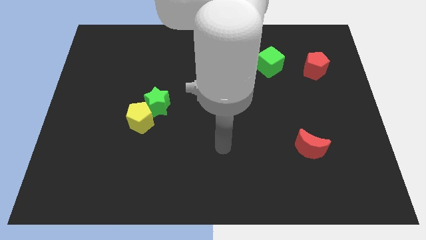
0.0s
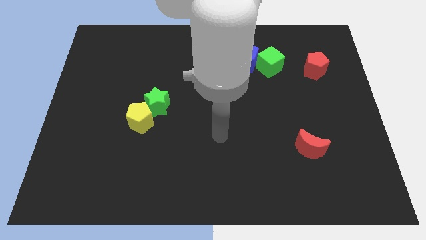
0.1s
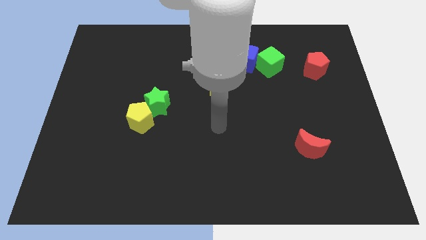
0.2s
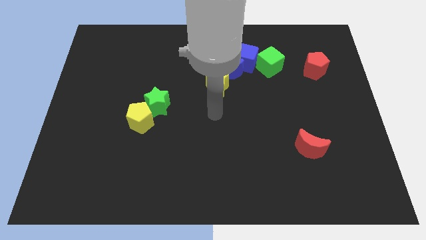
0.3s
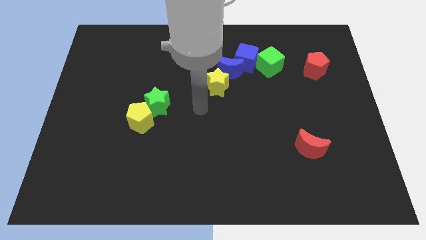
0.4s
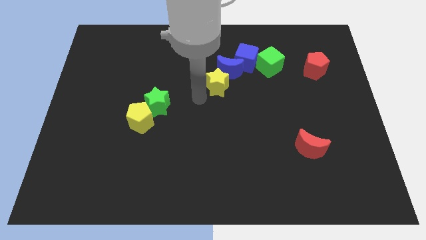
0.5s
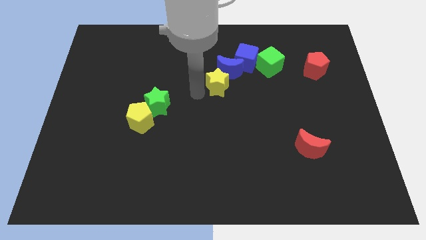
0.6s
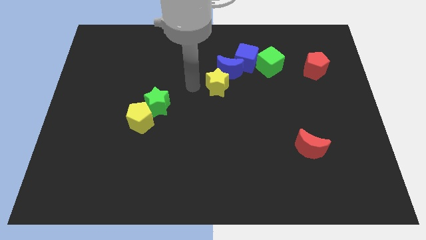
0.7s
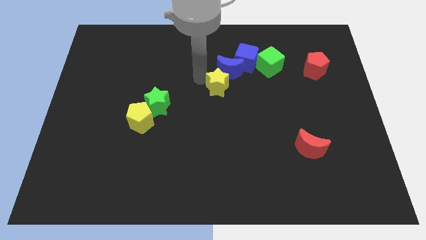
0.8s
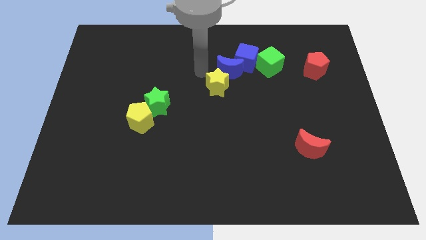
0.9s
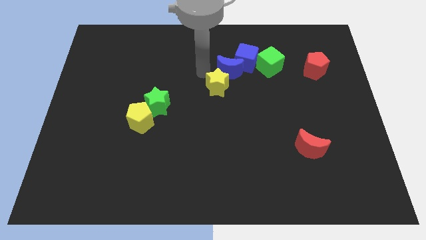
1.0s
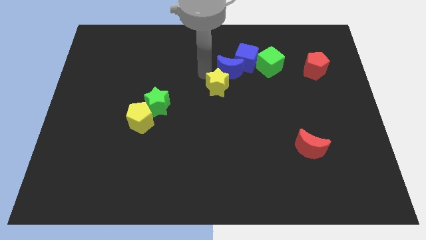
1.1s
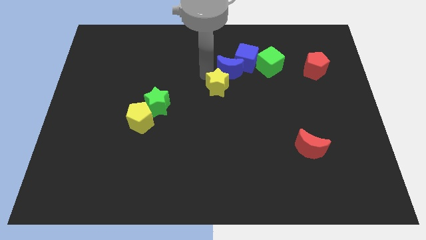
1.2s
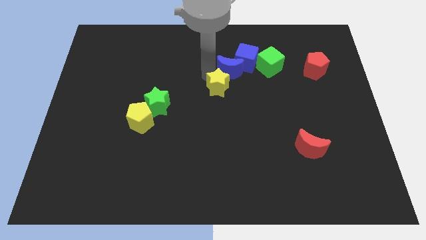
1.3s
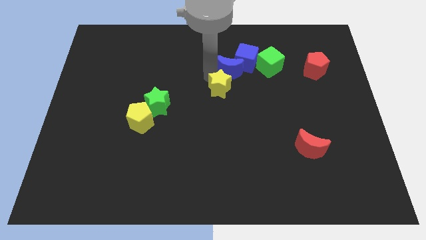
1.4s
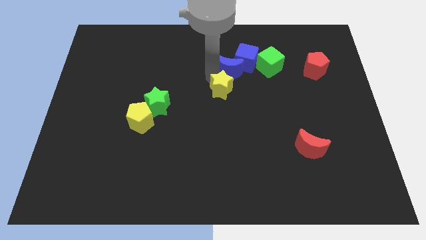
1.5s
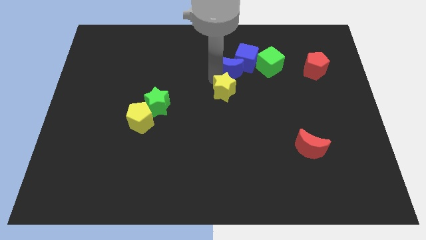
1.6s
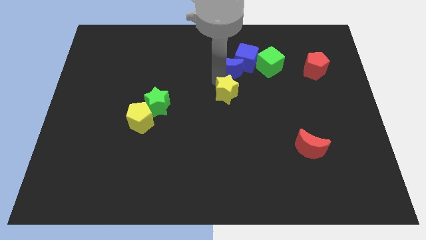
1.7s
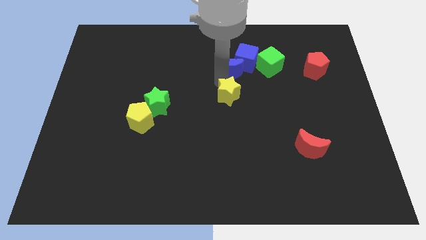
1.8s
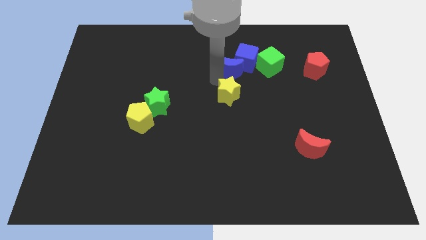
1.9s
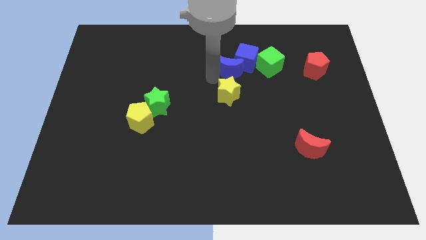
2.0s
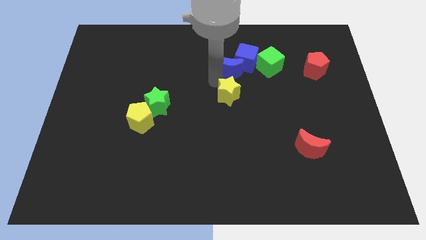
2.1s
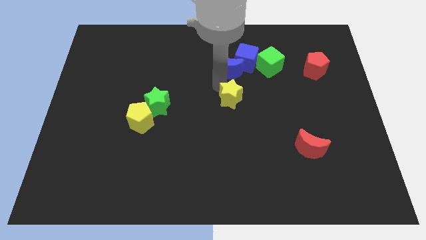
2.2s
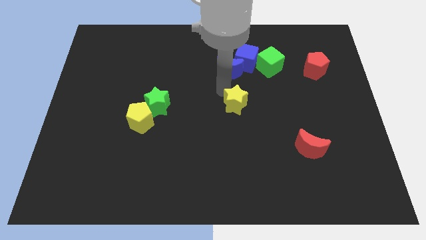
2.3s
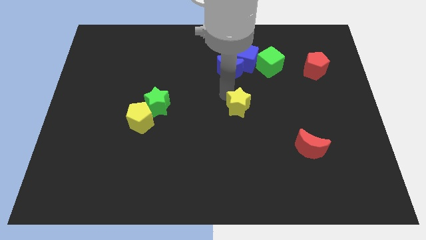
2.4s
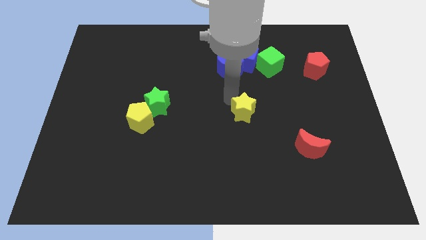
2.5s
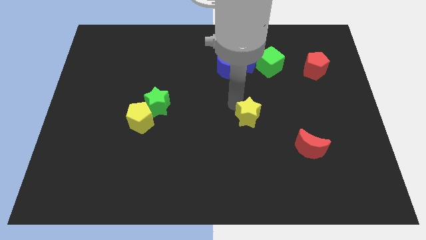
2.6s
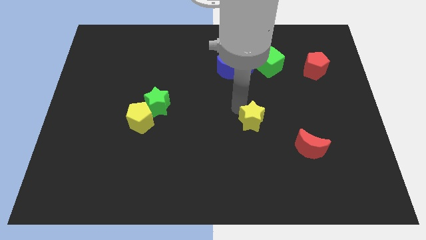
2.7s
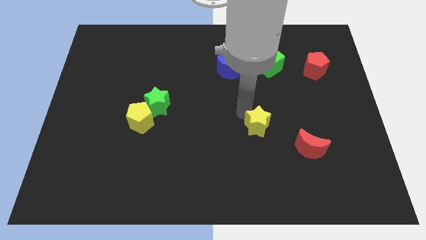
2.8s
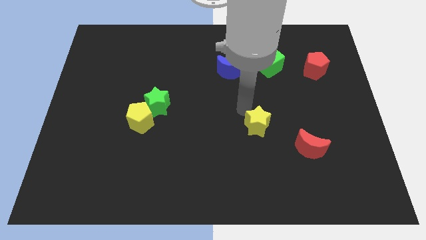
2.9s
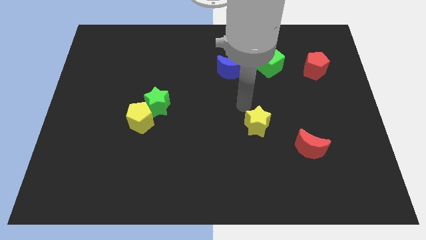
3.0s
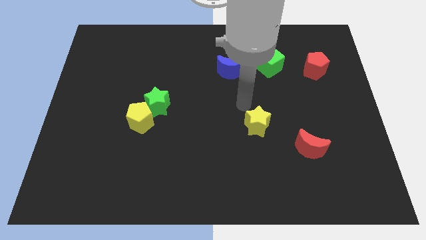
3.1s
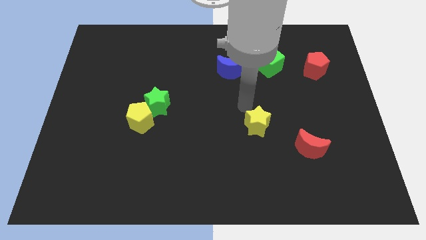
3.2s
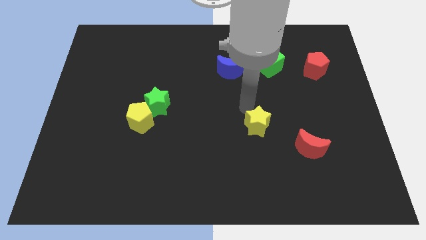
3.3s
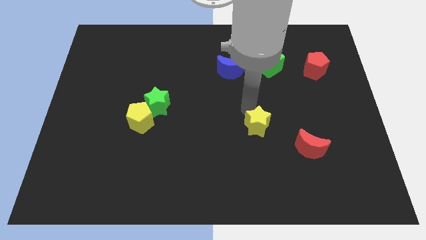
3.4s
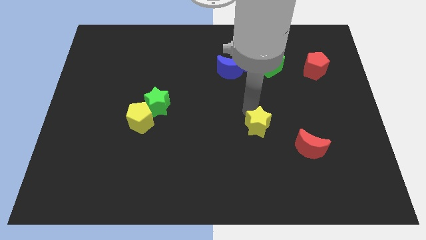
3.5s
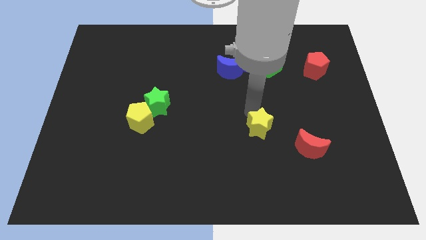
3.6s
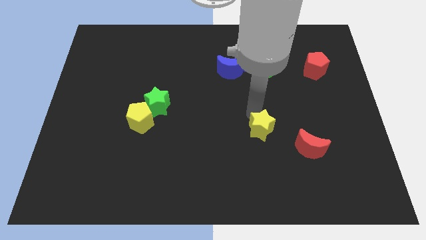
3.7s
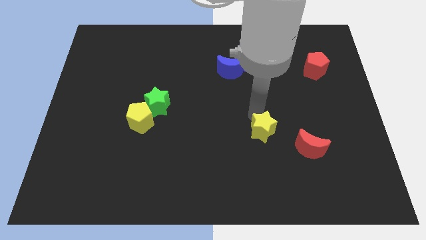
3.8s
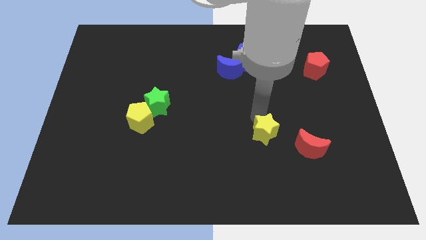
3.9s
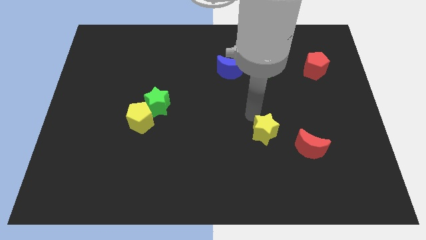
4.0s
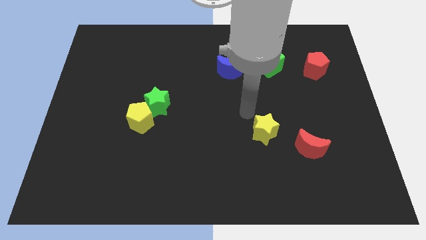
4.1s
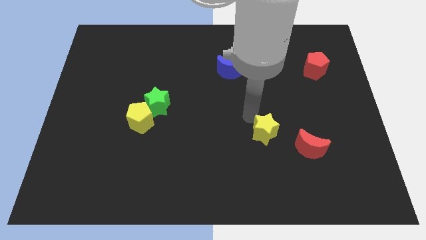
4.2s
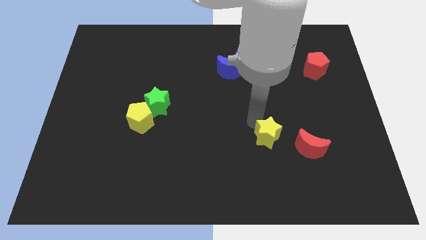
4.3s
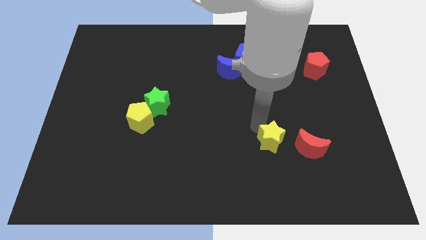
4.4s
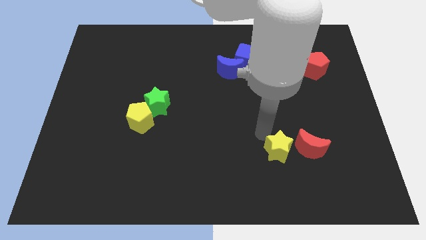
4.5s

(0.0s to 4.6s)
slide the yellow star downwards and right

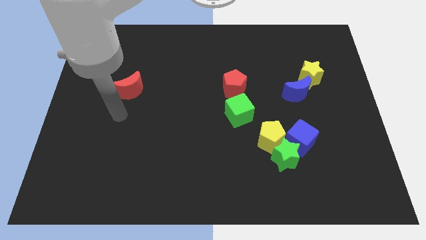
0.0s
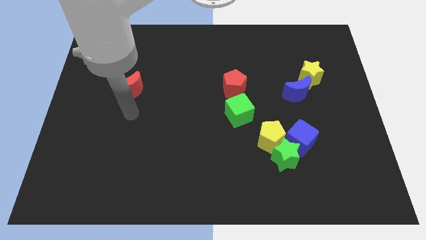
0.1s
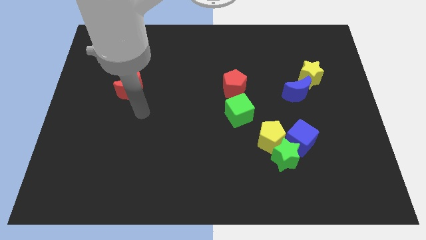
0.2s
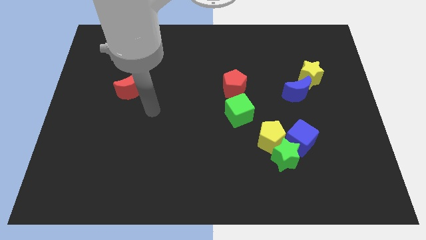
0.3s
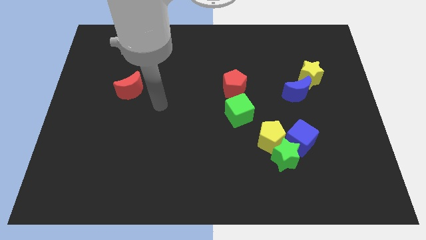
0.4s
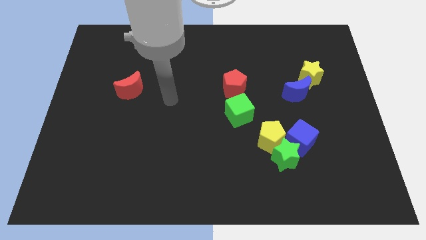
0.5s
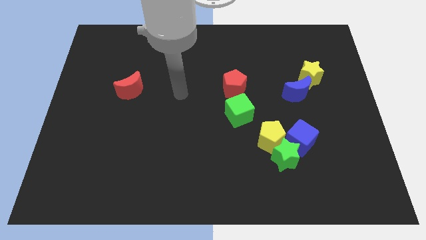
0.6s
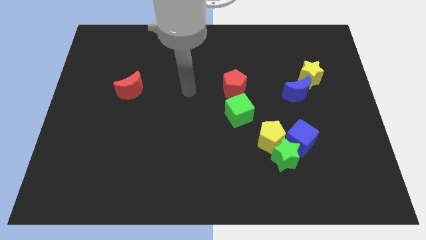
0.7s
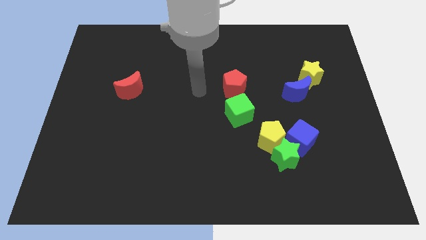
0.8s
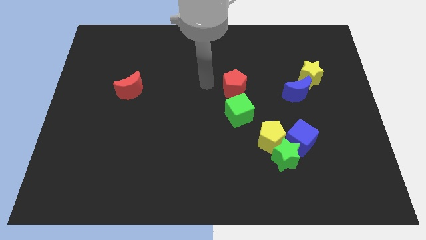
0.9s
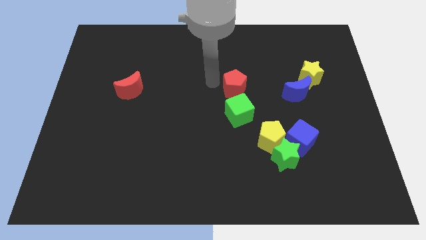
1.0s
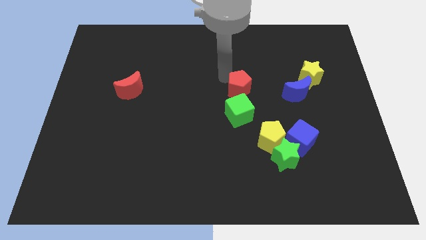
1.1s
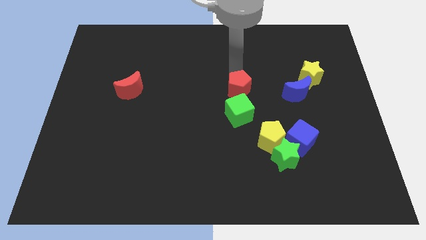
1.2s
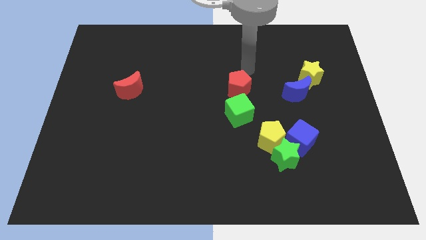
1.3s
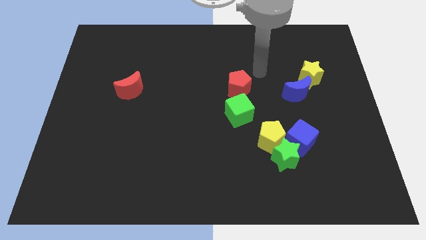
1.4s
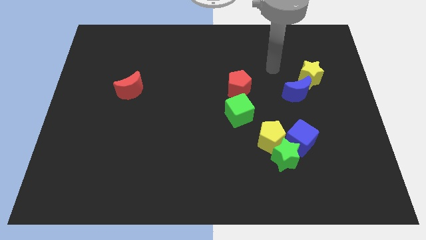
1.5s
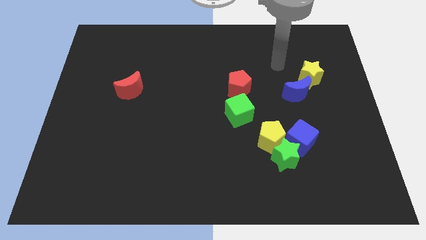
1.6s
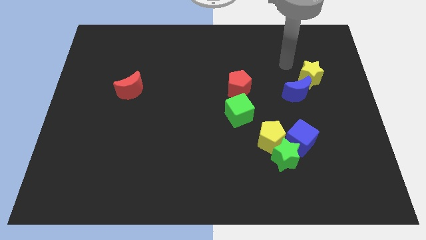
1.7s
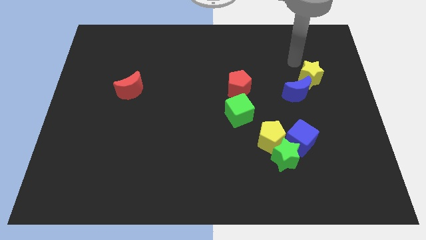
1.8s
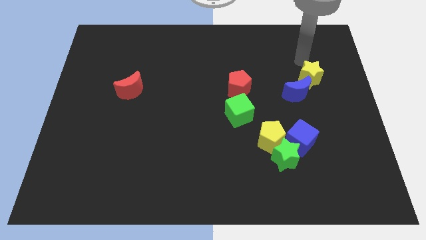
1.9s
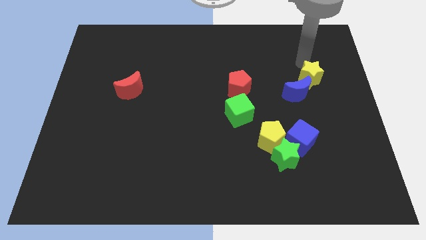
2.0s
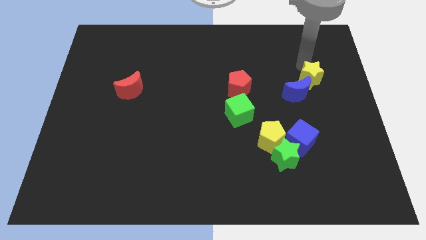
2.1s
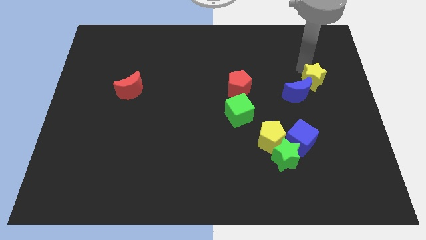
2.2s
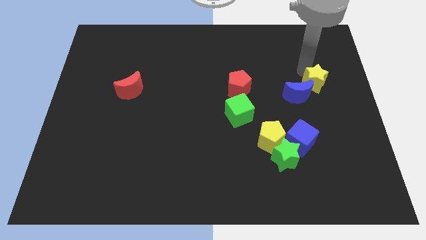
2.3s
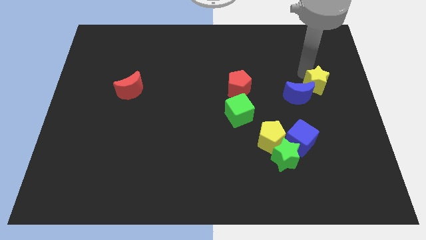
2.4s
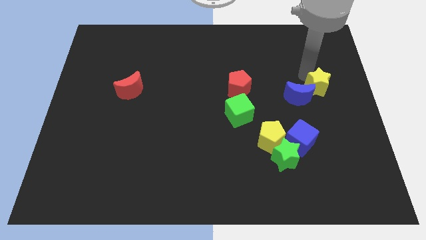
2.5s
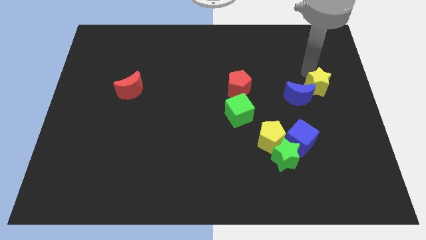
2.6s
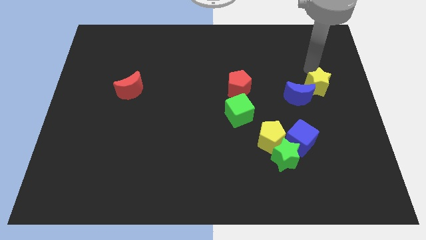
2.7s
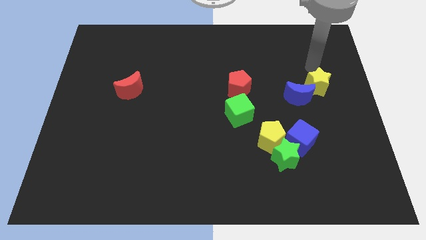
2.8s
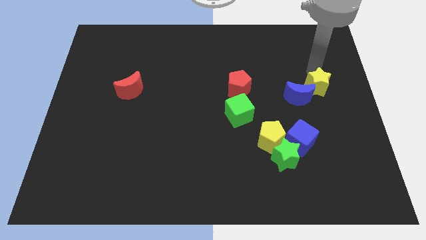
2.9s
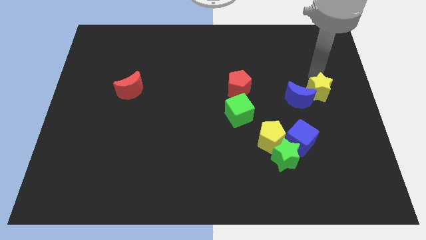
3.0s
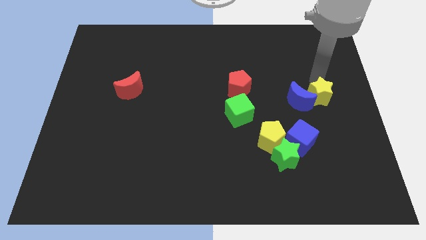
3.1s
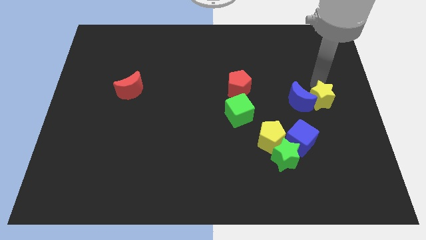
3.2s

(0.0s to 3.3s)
push the yellow star a little down
